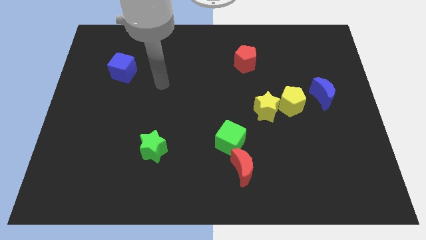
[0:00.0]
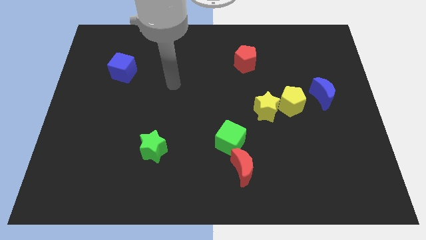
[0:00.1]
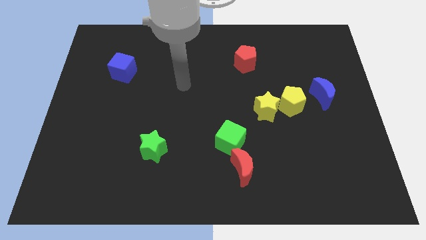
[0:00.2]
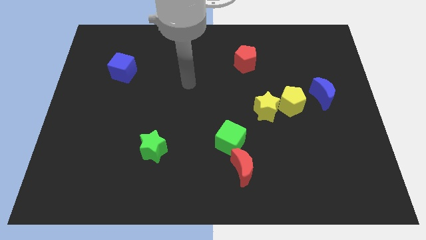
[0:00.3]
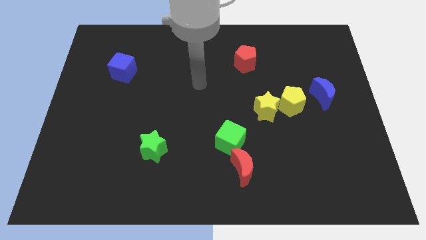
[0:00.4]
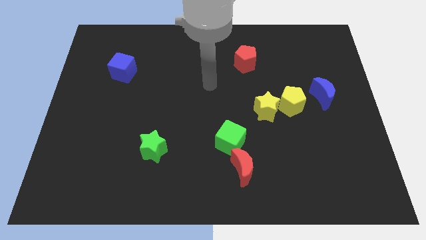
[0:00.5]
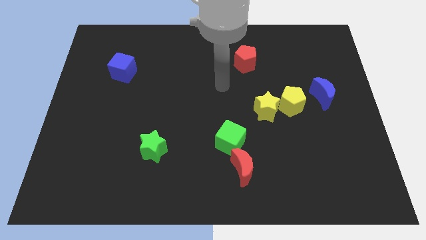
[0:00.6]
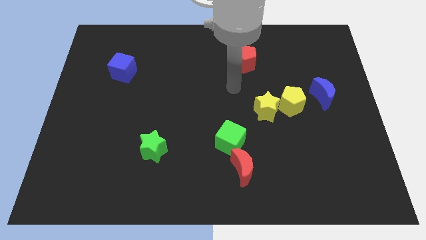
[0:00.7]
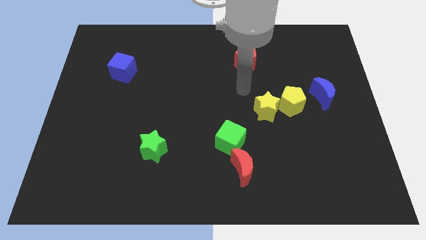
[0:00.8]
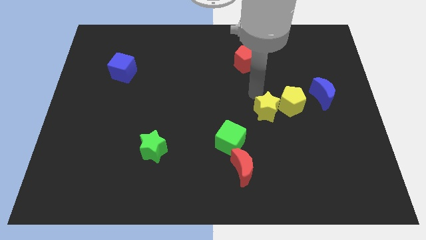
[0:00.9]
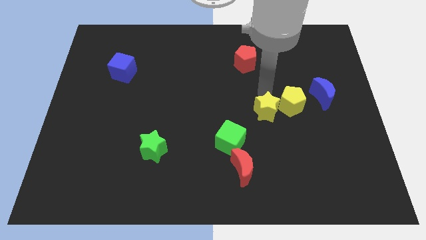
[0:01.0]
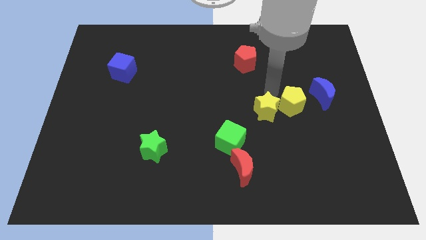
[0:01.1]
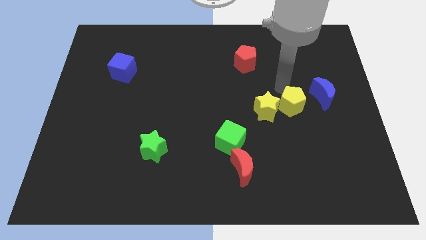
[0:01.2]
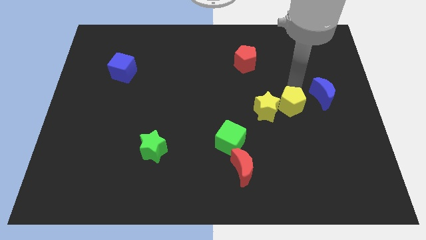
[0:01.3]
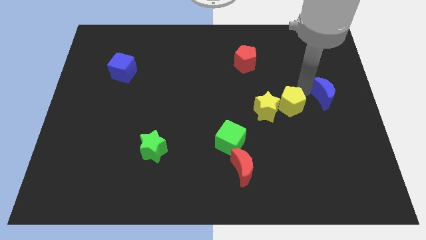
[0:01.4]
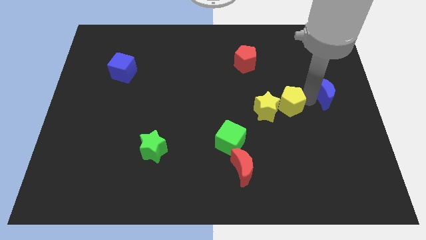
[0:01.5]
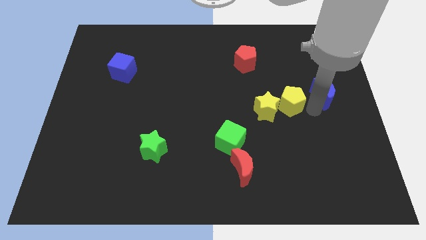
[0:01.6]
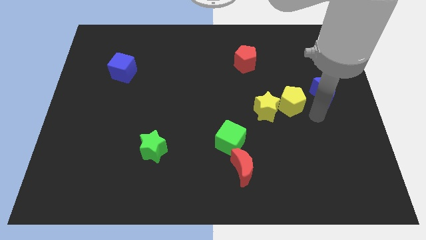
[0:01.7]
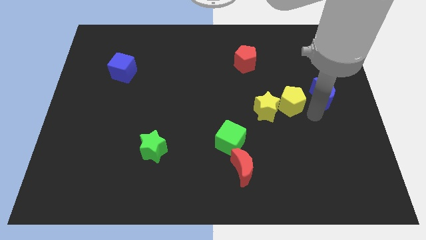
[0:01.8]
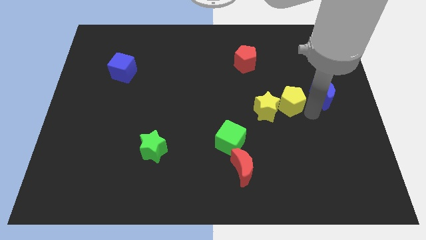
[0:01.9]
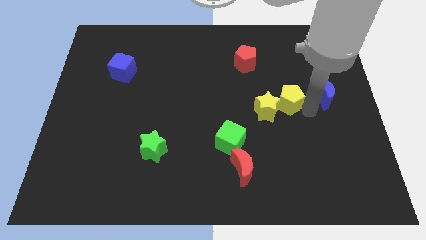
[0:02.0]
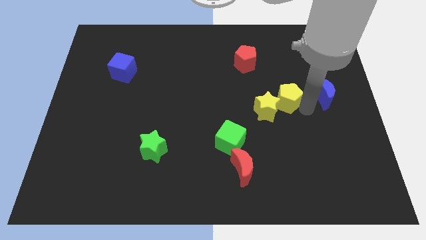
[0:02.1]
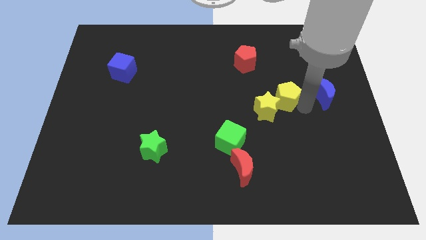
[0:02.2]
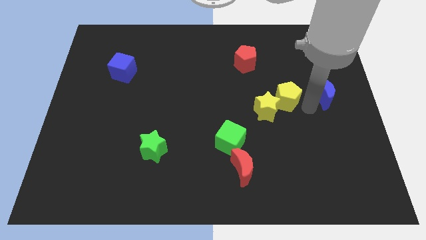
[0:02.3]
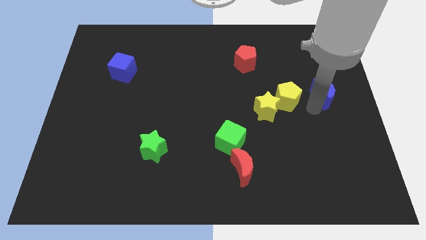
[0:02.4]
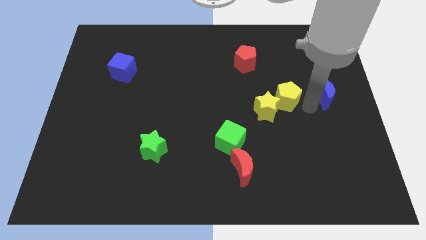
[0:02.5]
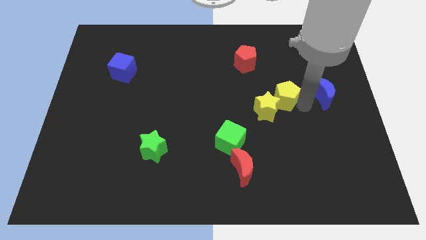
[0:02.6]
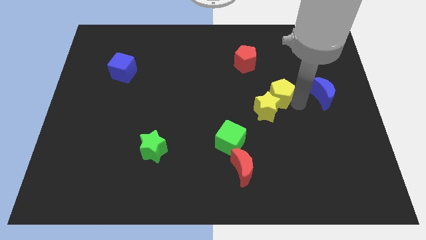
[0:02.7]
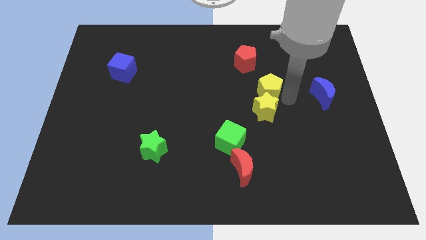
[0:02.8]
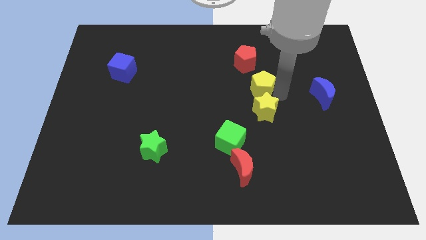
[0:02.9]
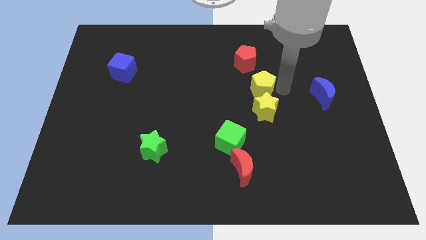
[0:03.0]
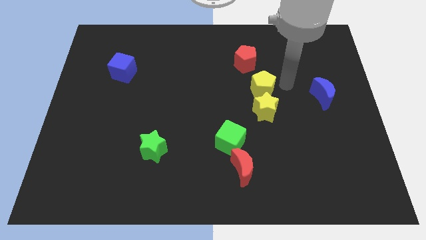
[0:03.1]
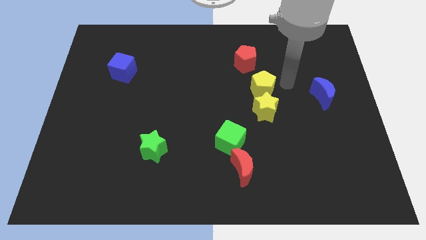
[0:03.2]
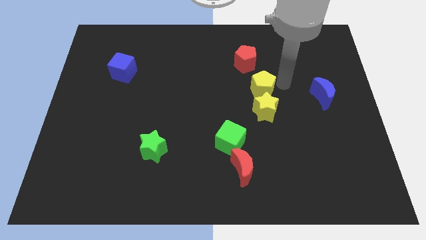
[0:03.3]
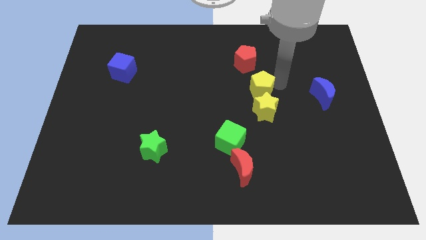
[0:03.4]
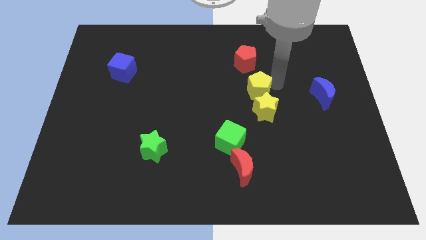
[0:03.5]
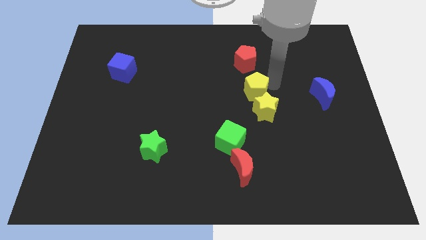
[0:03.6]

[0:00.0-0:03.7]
push the yellow pentagon to the left somewhat

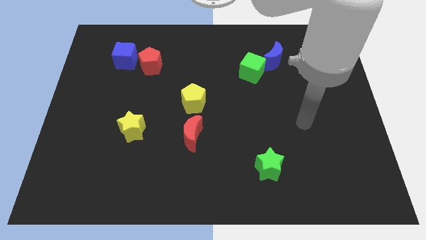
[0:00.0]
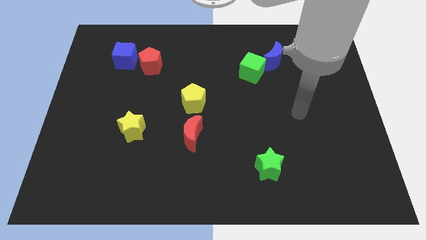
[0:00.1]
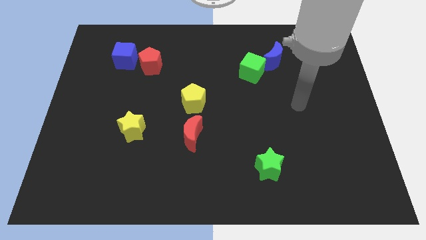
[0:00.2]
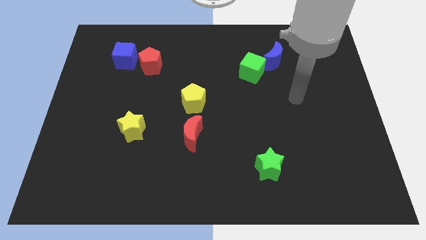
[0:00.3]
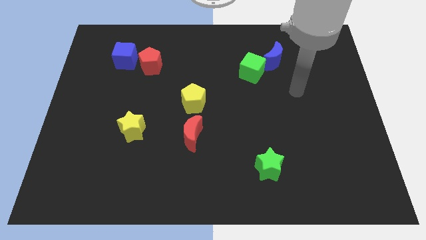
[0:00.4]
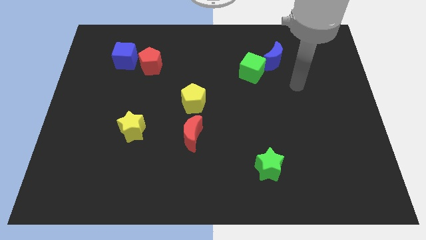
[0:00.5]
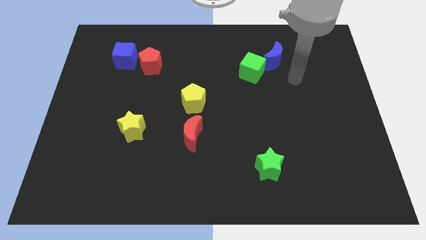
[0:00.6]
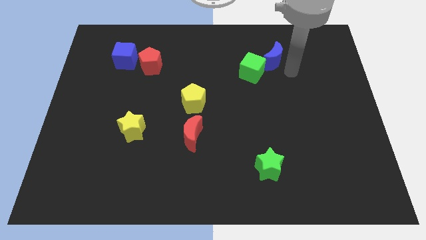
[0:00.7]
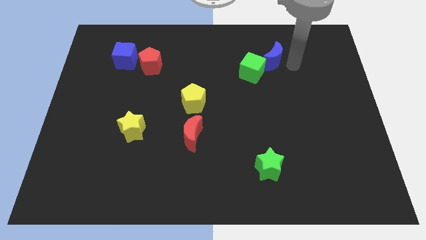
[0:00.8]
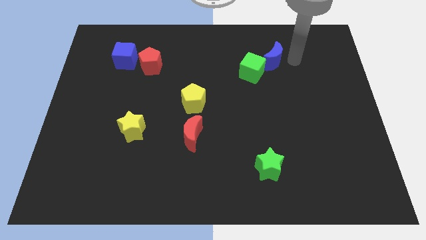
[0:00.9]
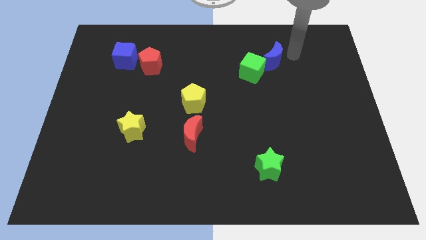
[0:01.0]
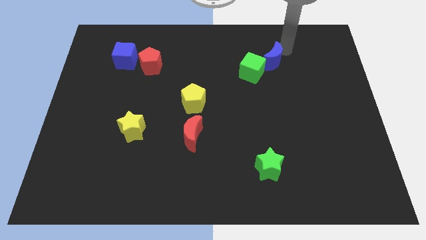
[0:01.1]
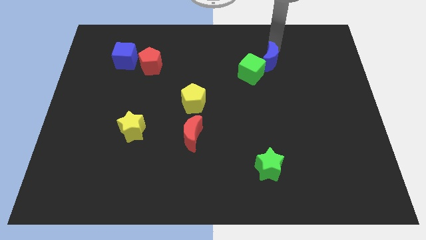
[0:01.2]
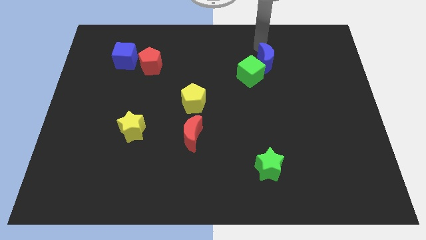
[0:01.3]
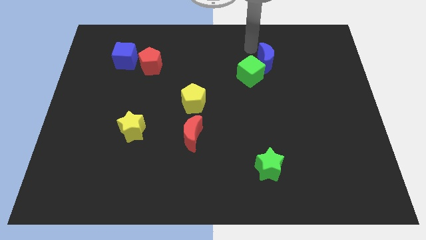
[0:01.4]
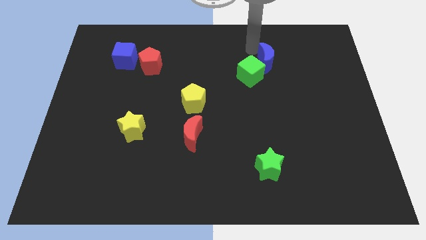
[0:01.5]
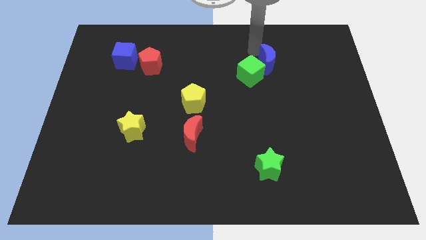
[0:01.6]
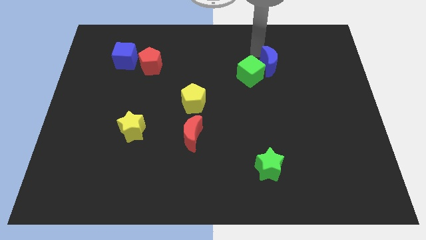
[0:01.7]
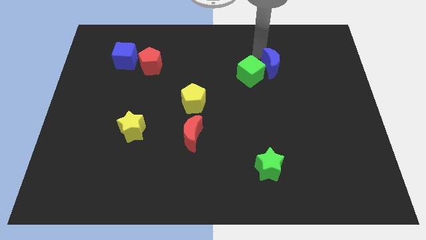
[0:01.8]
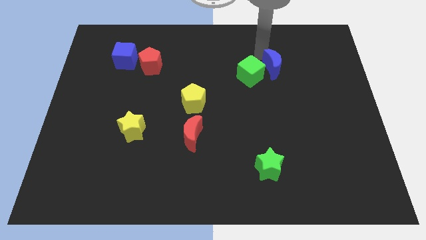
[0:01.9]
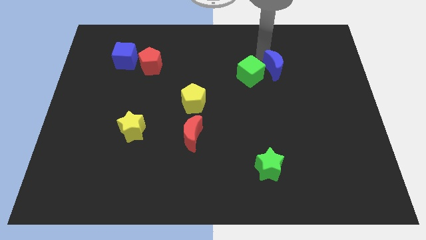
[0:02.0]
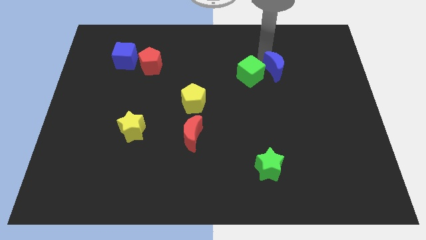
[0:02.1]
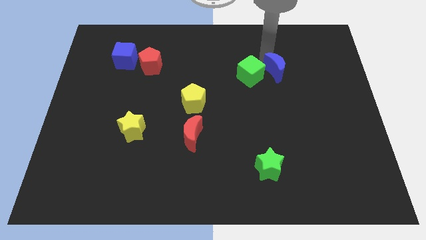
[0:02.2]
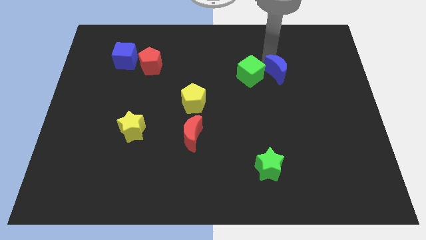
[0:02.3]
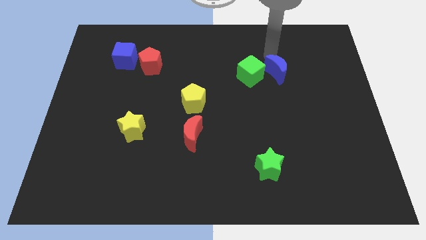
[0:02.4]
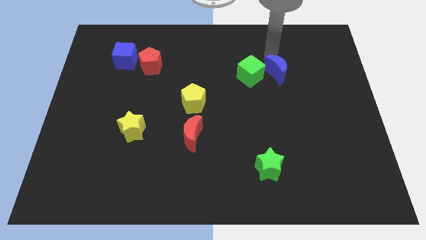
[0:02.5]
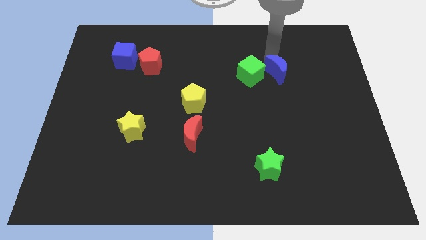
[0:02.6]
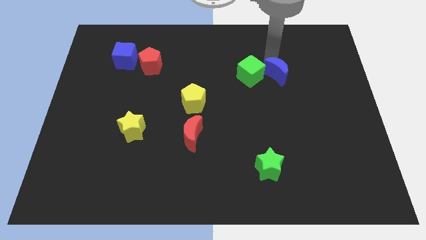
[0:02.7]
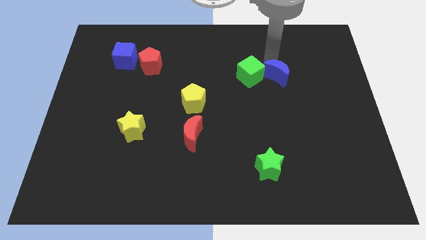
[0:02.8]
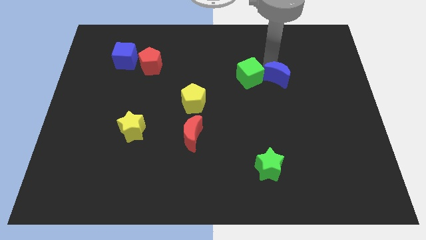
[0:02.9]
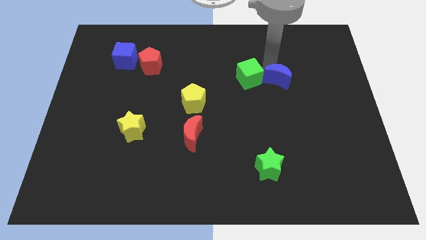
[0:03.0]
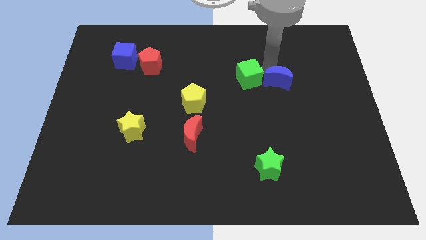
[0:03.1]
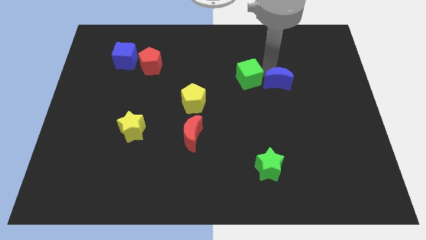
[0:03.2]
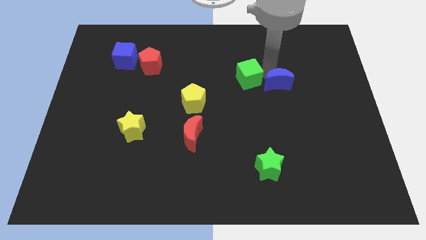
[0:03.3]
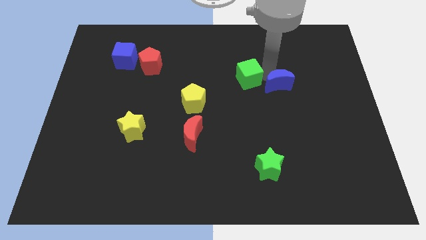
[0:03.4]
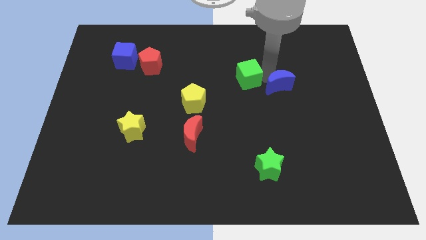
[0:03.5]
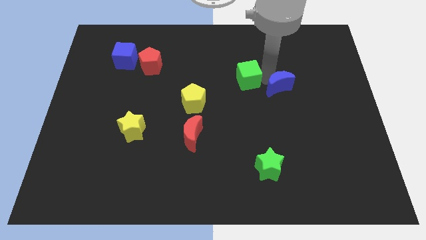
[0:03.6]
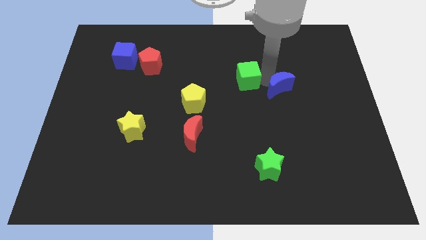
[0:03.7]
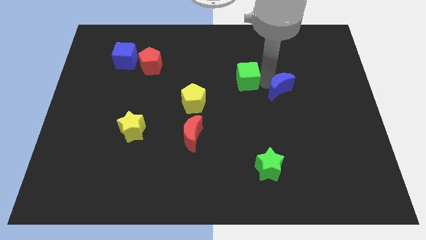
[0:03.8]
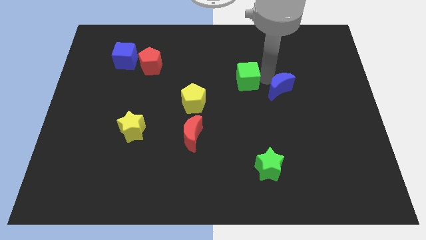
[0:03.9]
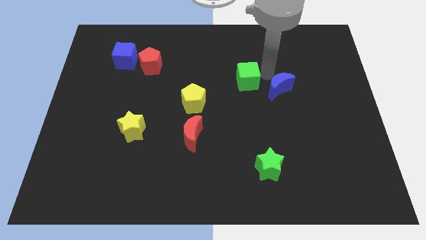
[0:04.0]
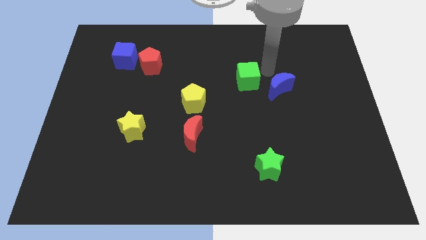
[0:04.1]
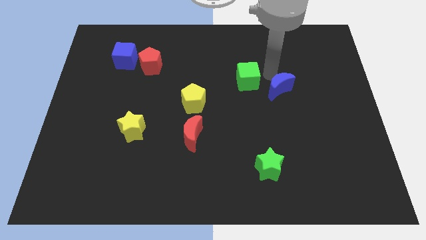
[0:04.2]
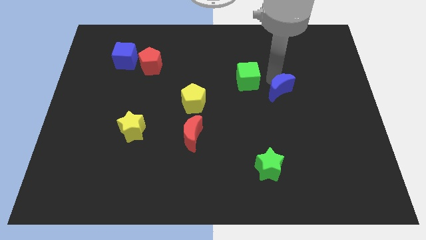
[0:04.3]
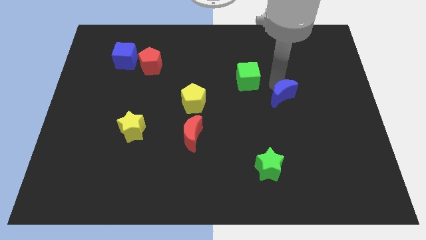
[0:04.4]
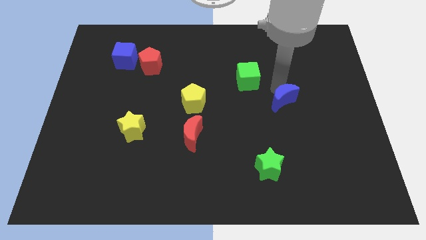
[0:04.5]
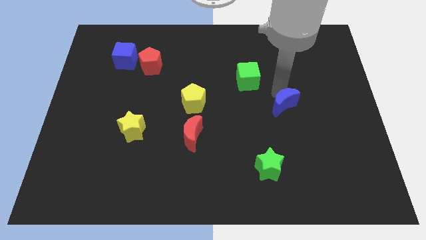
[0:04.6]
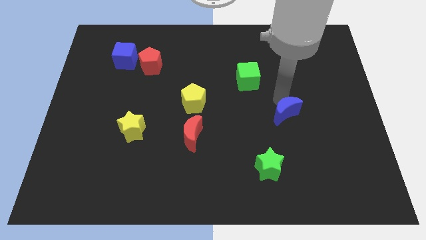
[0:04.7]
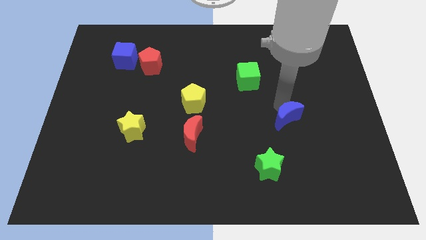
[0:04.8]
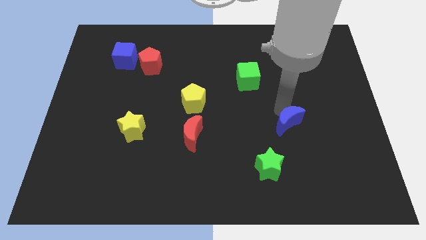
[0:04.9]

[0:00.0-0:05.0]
push the blue moon downwards
